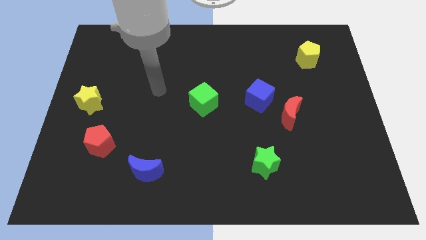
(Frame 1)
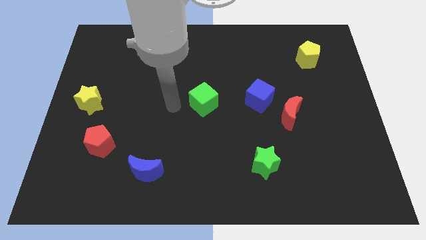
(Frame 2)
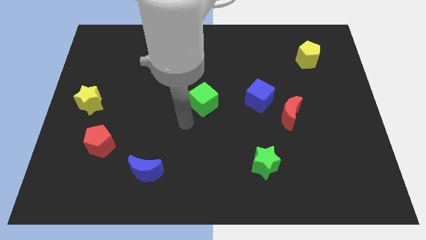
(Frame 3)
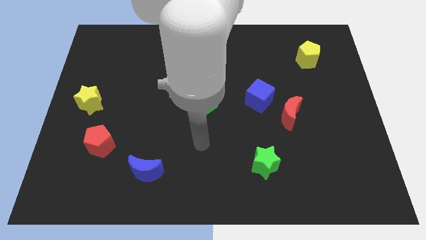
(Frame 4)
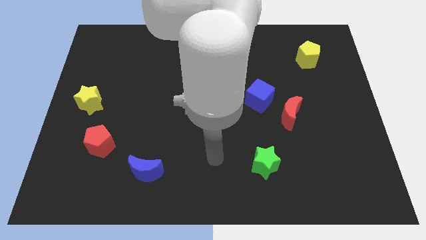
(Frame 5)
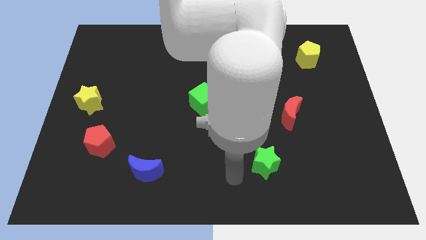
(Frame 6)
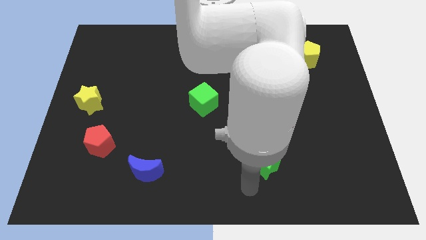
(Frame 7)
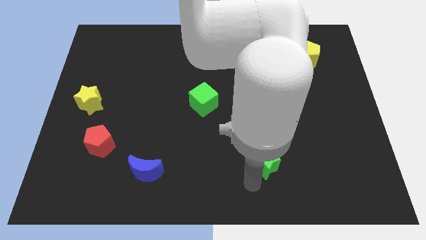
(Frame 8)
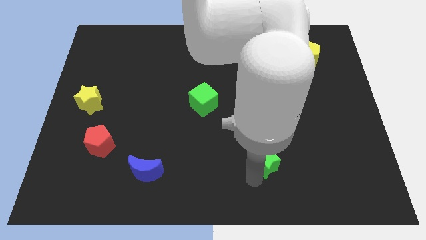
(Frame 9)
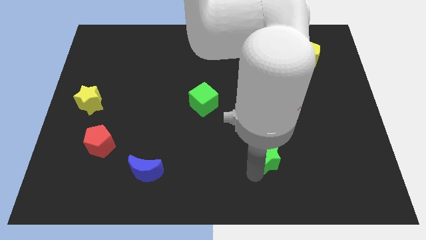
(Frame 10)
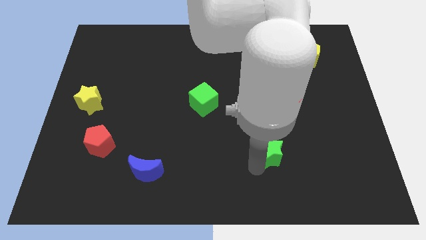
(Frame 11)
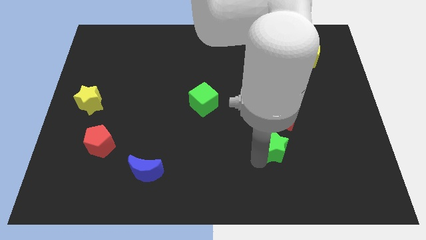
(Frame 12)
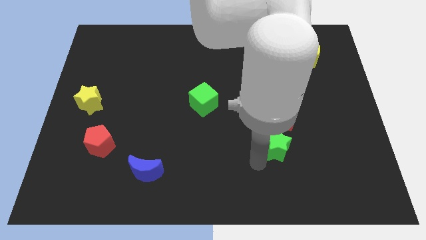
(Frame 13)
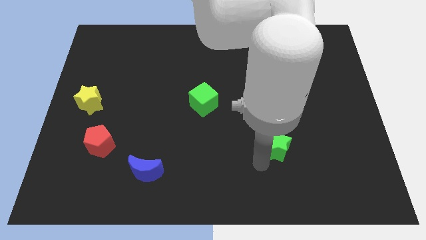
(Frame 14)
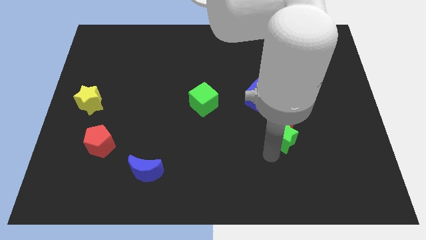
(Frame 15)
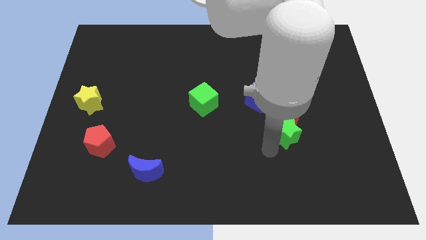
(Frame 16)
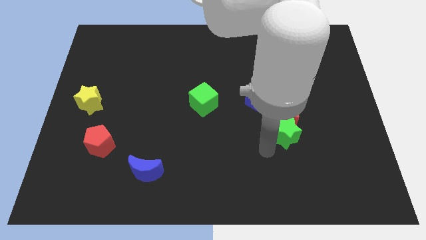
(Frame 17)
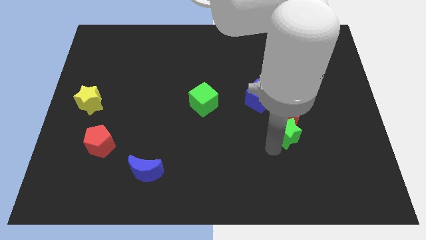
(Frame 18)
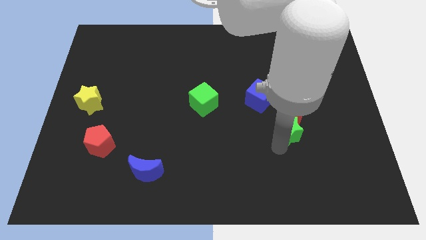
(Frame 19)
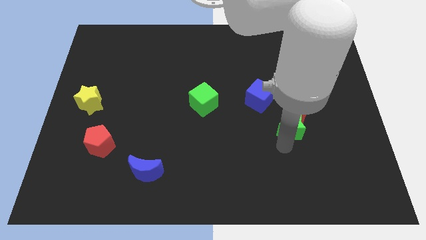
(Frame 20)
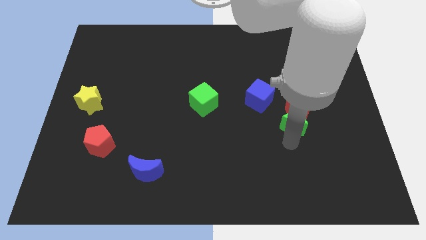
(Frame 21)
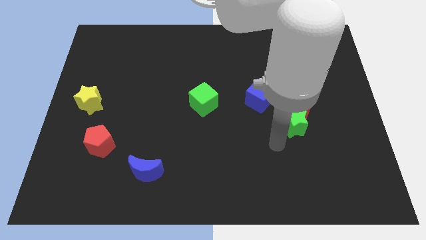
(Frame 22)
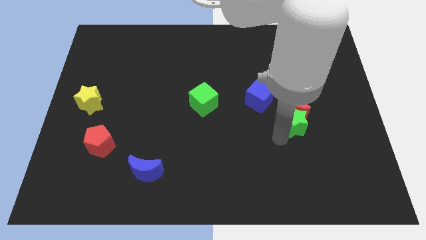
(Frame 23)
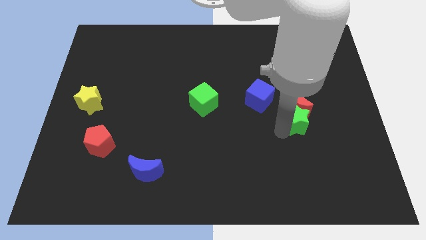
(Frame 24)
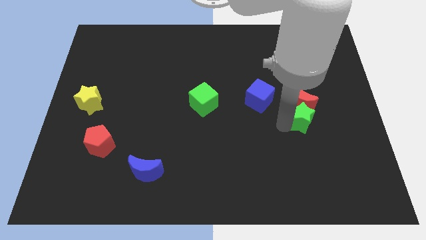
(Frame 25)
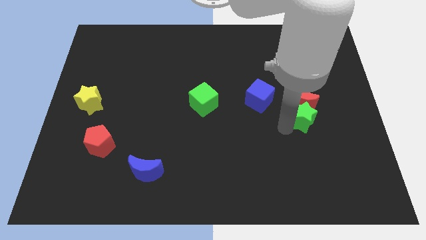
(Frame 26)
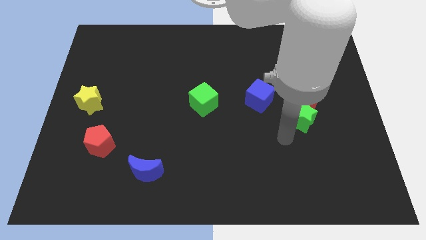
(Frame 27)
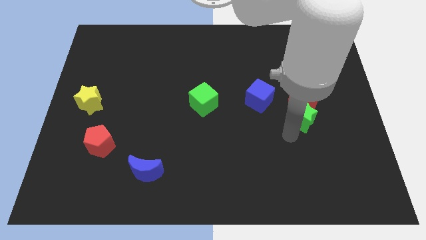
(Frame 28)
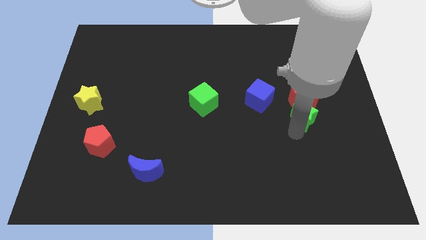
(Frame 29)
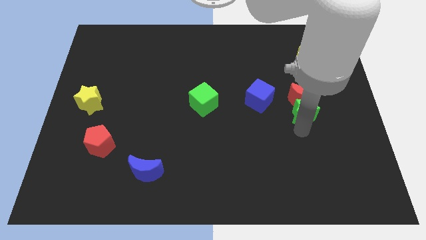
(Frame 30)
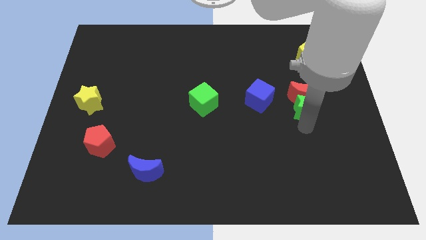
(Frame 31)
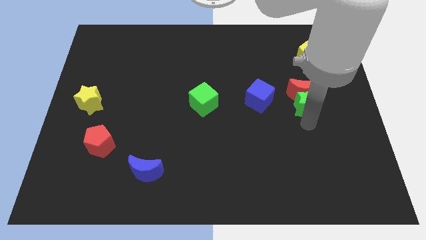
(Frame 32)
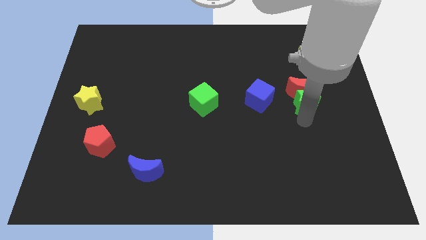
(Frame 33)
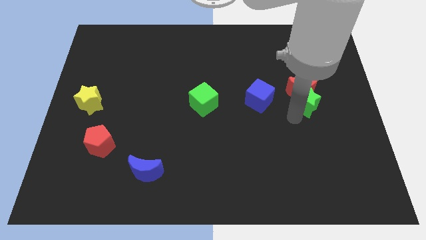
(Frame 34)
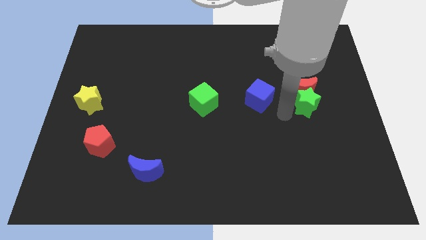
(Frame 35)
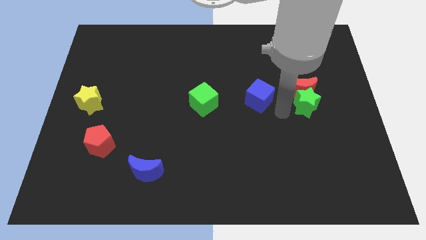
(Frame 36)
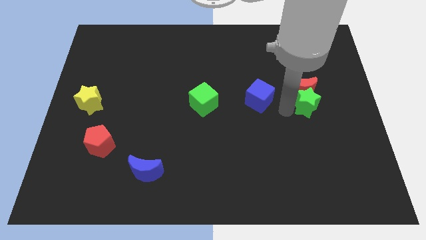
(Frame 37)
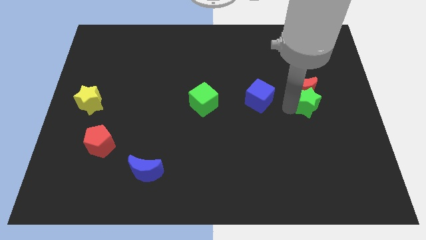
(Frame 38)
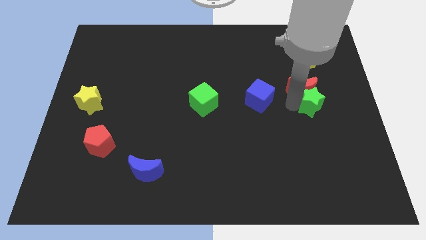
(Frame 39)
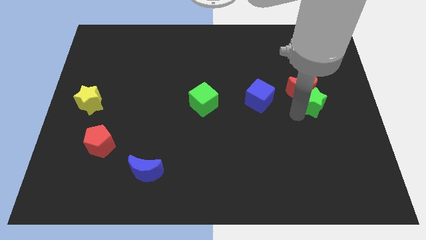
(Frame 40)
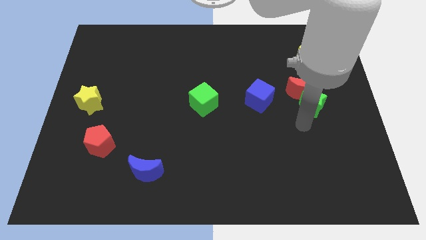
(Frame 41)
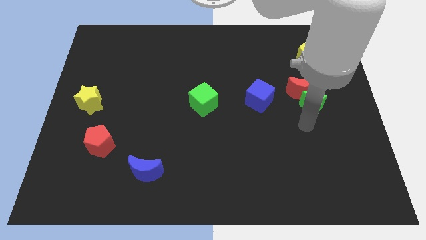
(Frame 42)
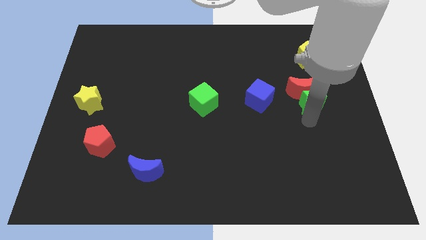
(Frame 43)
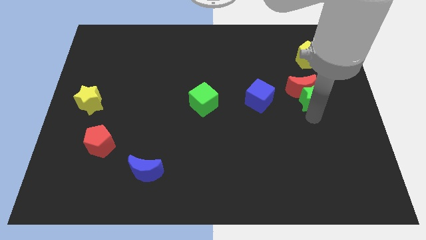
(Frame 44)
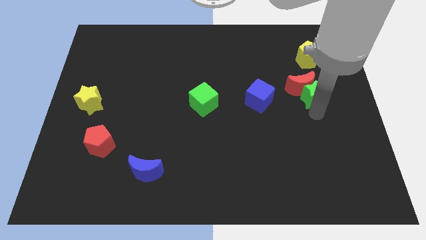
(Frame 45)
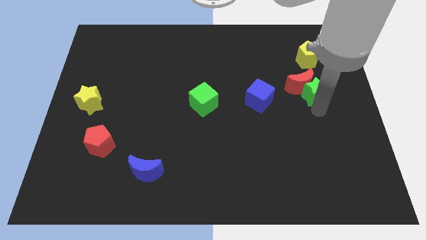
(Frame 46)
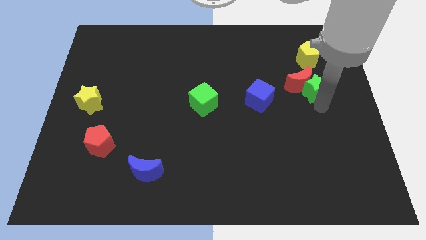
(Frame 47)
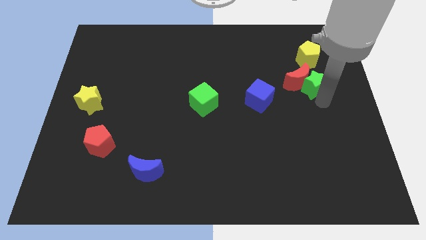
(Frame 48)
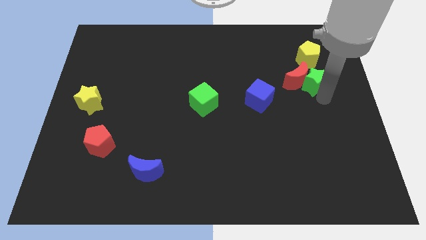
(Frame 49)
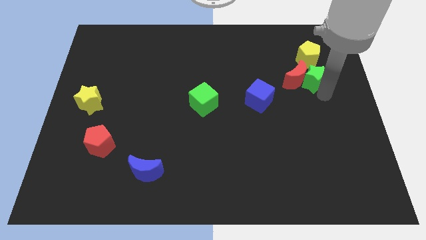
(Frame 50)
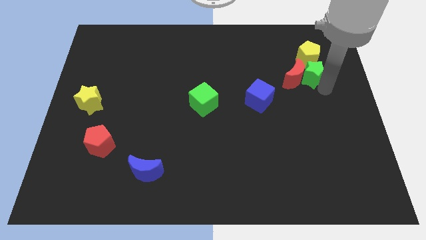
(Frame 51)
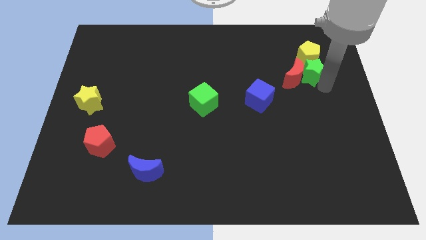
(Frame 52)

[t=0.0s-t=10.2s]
put the green star to the yellow pentagon

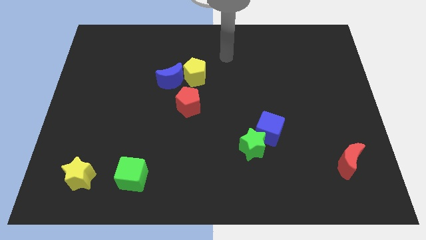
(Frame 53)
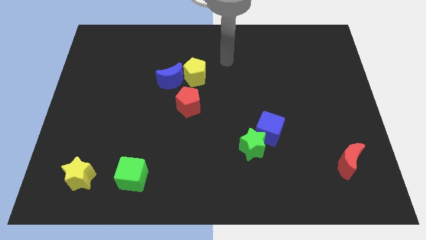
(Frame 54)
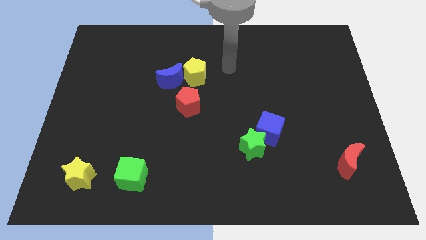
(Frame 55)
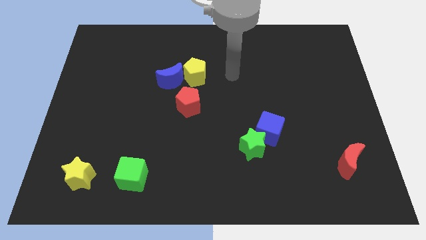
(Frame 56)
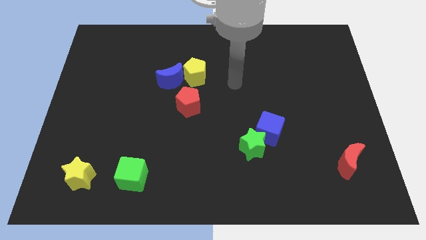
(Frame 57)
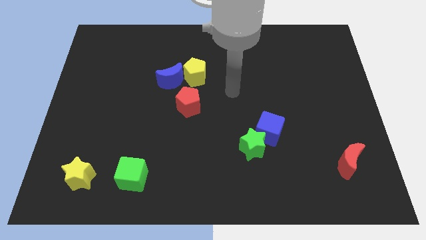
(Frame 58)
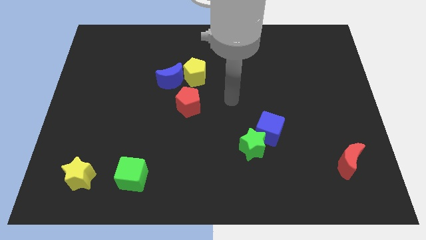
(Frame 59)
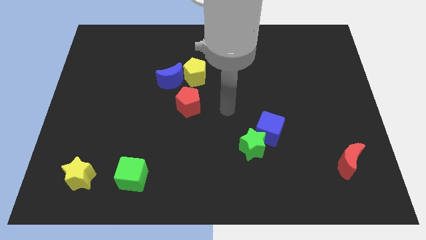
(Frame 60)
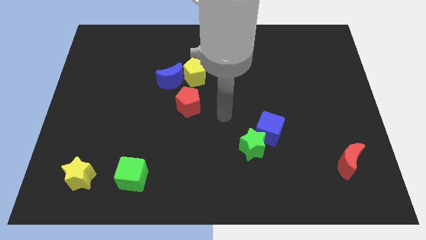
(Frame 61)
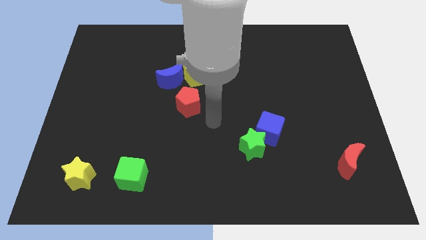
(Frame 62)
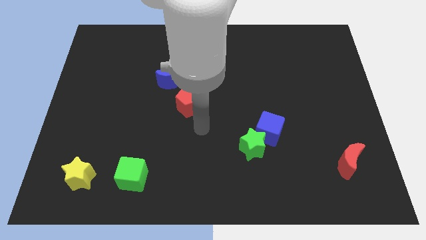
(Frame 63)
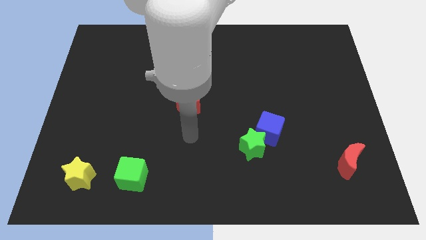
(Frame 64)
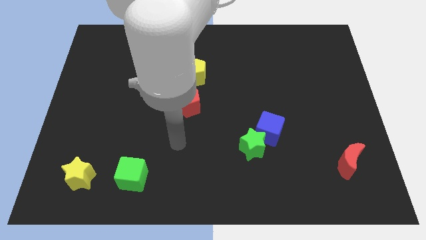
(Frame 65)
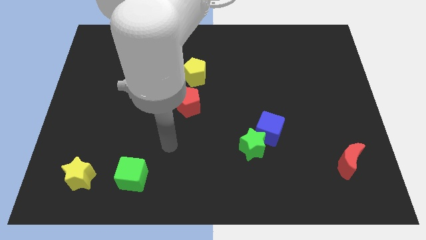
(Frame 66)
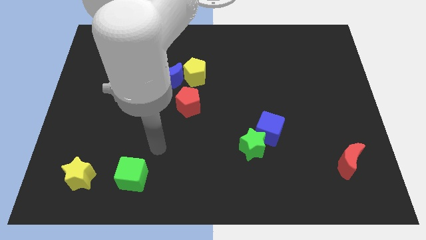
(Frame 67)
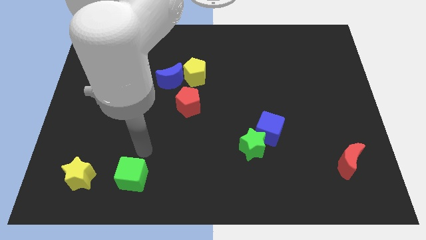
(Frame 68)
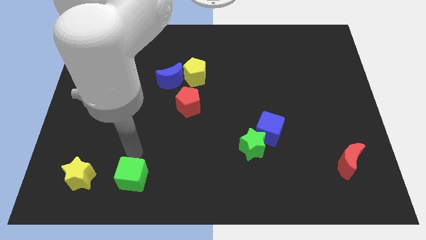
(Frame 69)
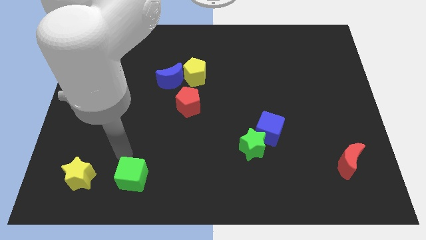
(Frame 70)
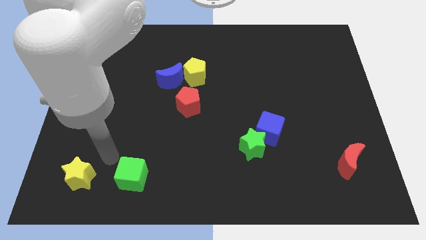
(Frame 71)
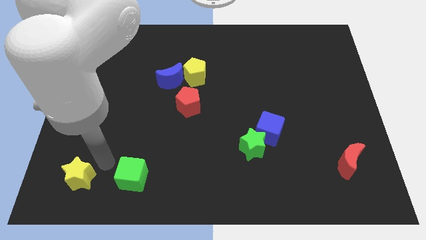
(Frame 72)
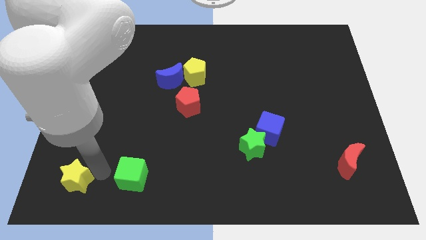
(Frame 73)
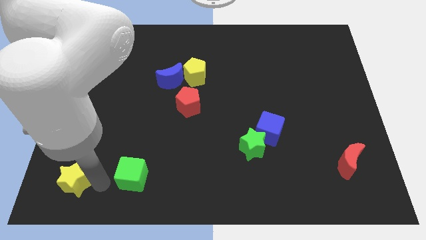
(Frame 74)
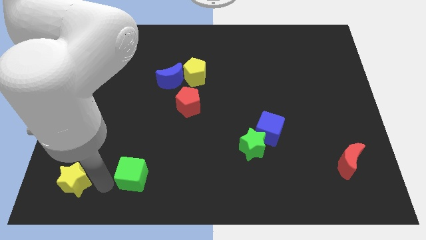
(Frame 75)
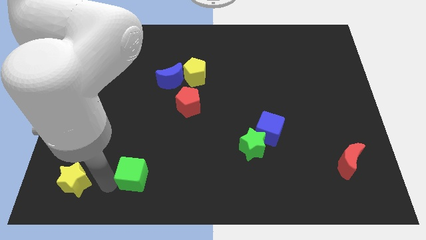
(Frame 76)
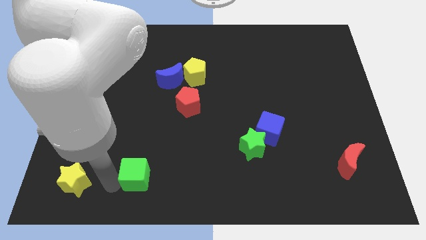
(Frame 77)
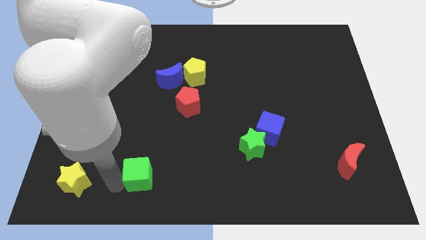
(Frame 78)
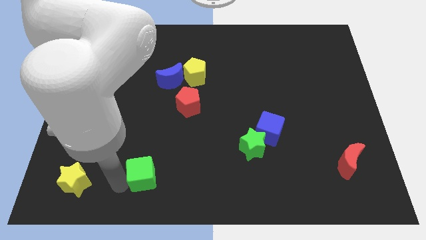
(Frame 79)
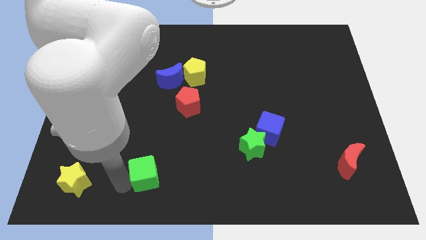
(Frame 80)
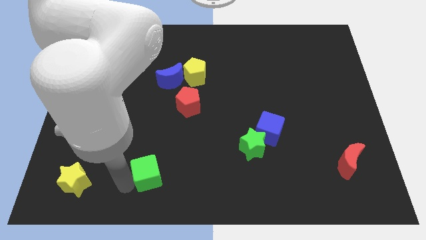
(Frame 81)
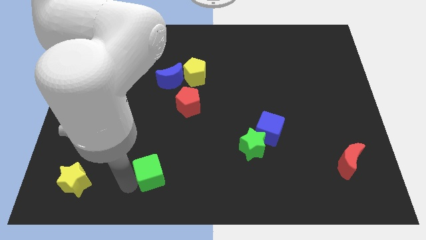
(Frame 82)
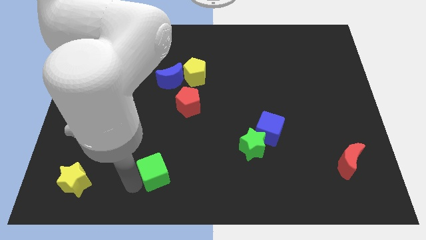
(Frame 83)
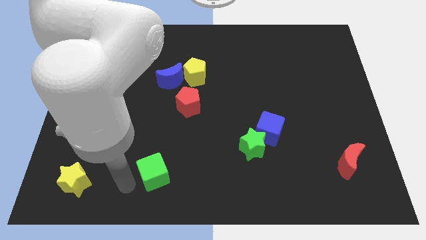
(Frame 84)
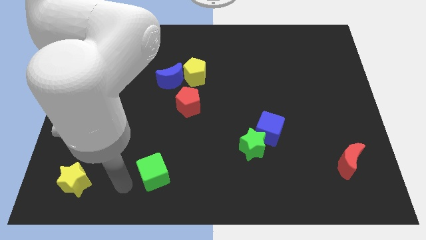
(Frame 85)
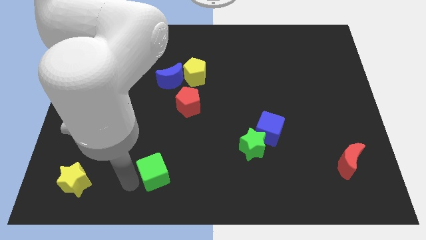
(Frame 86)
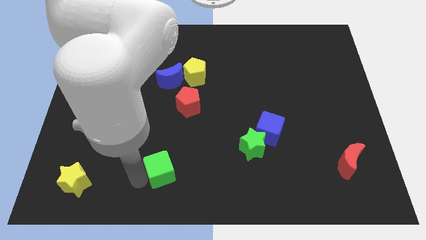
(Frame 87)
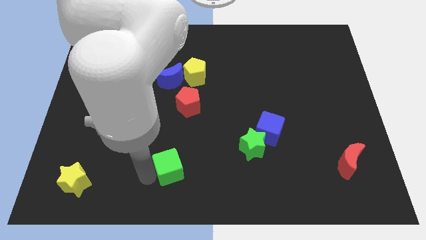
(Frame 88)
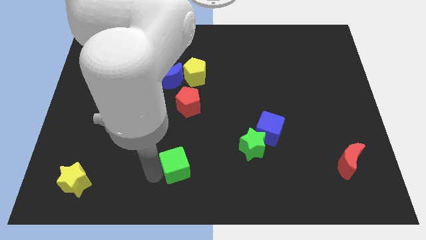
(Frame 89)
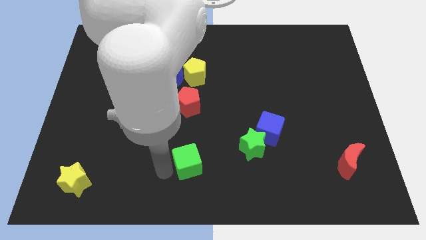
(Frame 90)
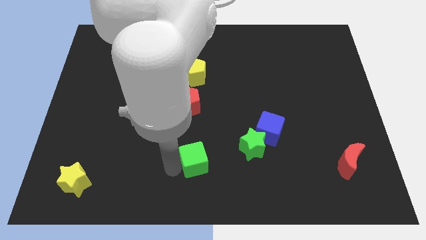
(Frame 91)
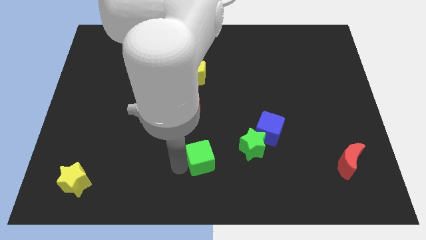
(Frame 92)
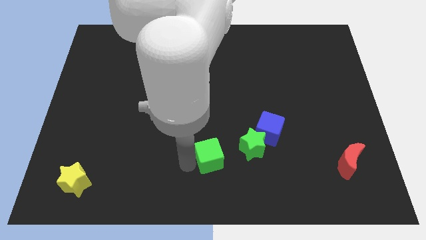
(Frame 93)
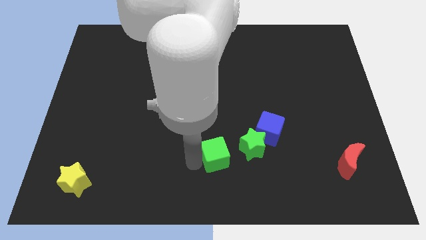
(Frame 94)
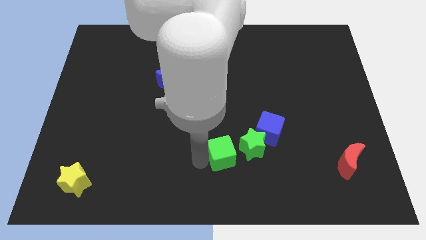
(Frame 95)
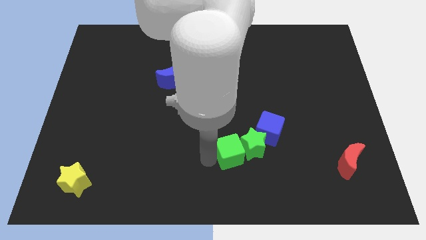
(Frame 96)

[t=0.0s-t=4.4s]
slide the green cube next to the green star
